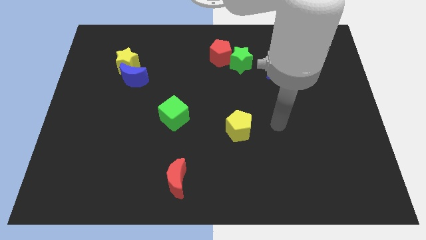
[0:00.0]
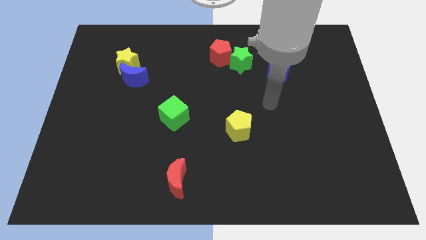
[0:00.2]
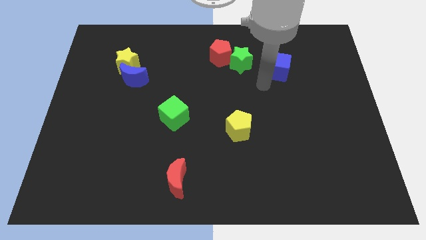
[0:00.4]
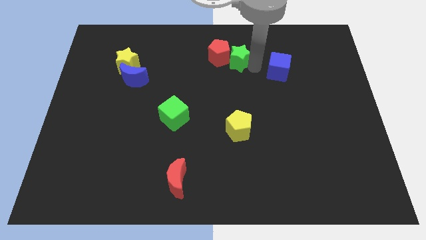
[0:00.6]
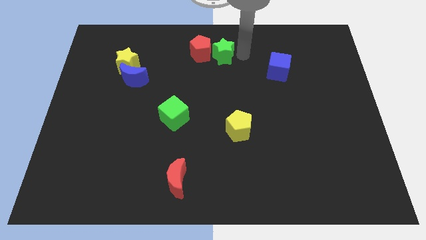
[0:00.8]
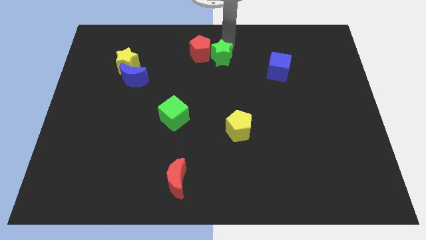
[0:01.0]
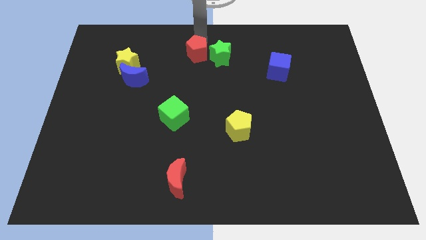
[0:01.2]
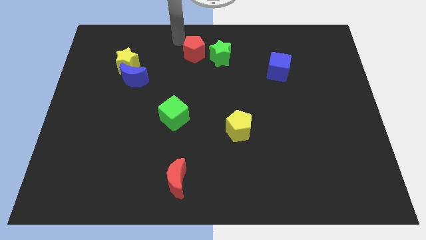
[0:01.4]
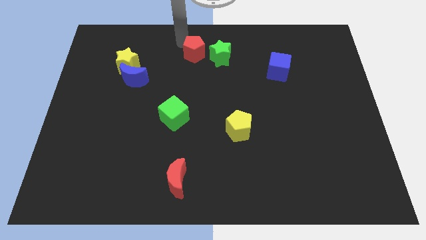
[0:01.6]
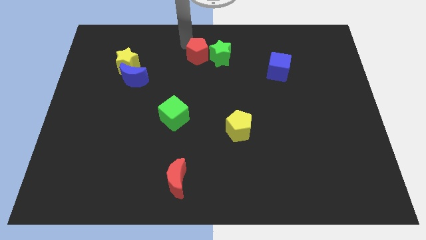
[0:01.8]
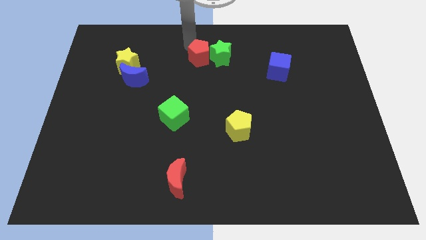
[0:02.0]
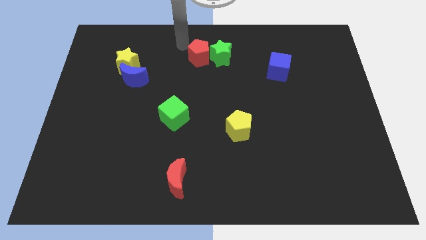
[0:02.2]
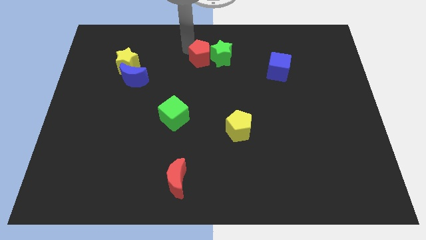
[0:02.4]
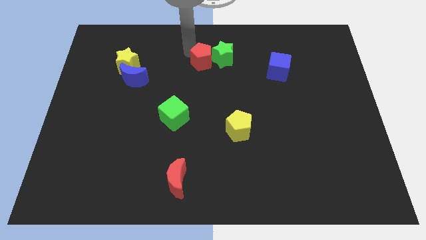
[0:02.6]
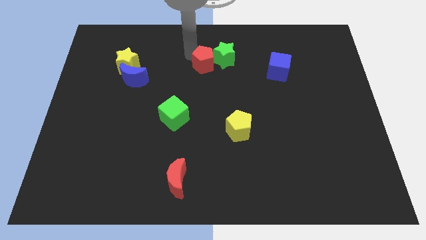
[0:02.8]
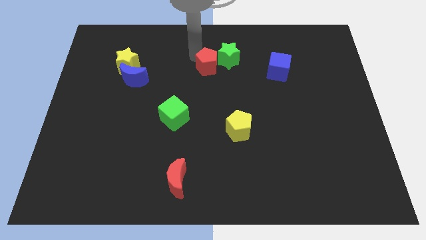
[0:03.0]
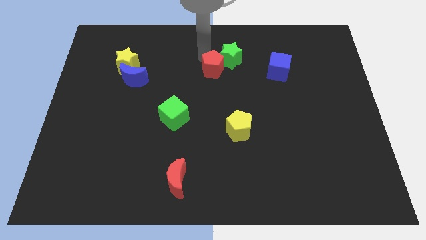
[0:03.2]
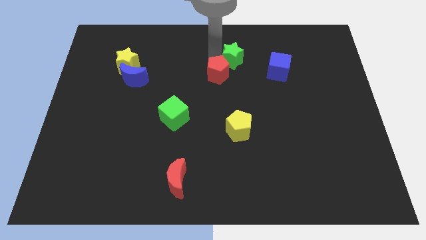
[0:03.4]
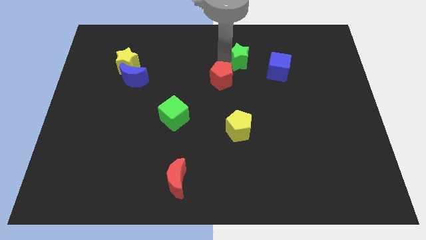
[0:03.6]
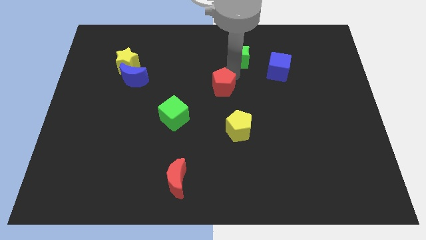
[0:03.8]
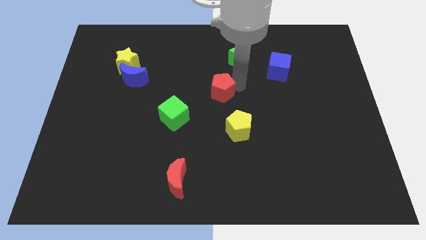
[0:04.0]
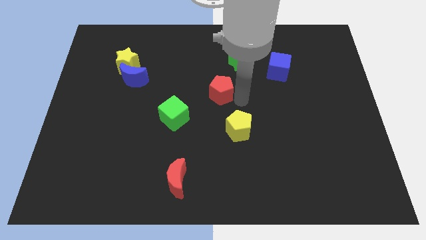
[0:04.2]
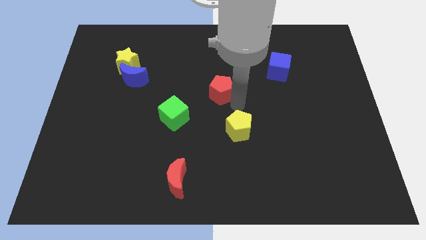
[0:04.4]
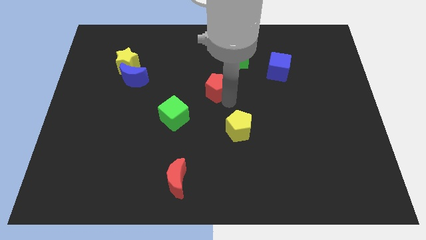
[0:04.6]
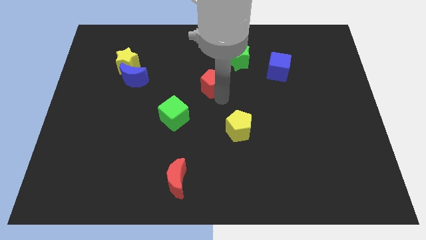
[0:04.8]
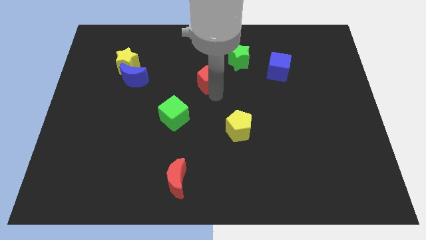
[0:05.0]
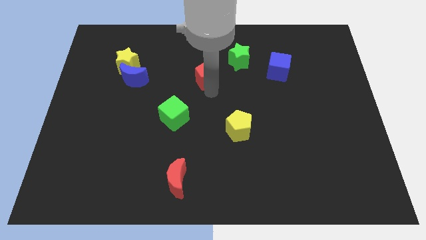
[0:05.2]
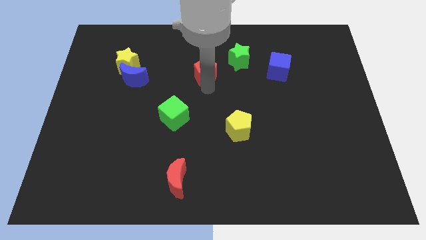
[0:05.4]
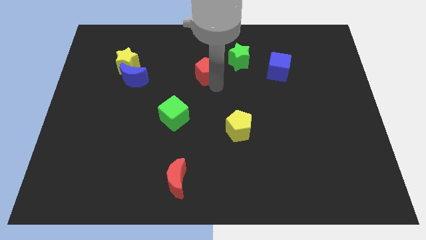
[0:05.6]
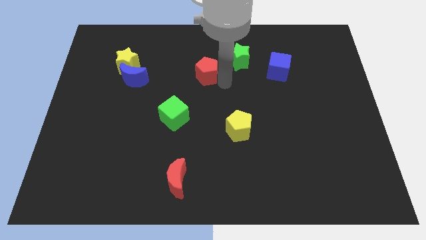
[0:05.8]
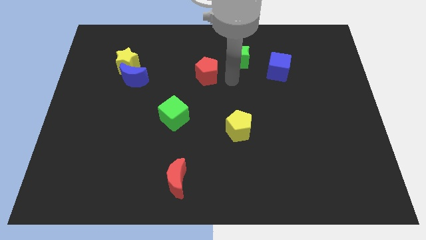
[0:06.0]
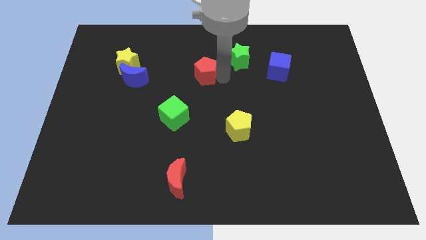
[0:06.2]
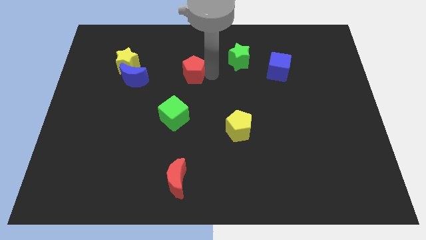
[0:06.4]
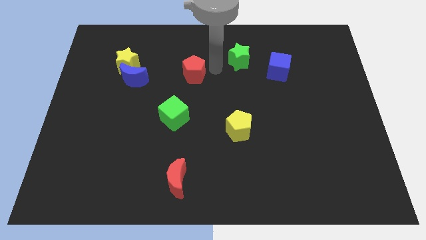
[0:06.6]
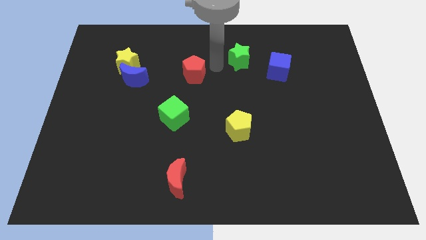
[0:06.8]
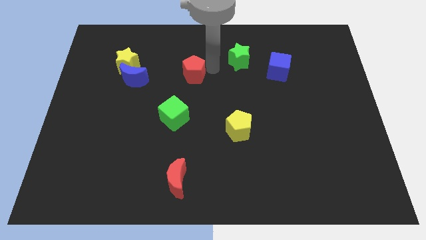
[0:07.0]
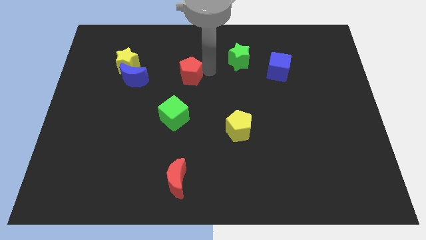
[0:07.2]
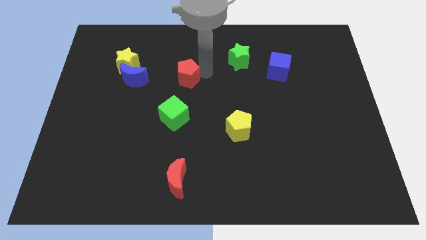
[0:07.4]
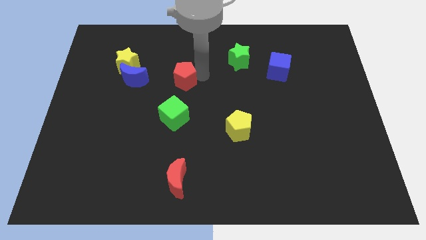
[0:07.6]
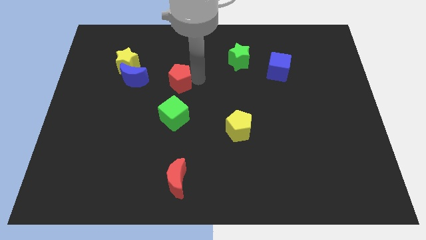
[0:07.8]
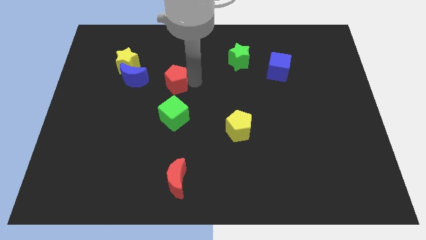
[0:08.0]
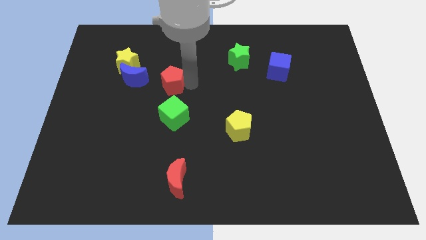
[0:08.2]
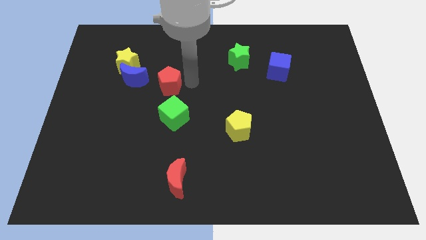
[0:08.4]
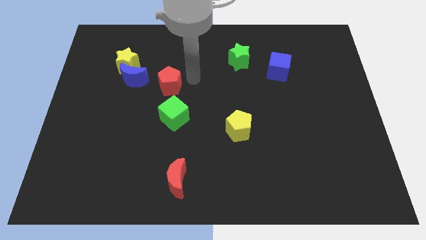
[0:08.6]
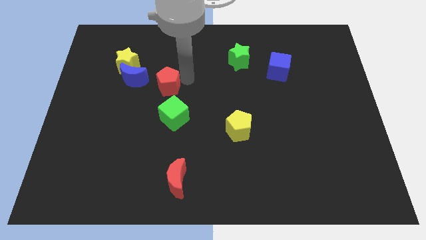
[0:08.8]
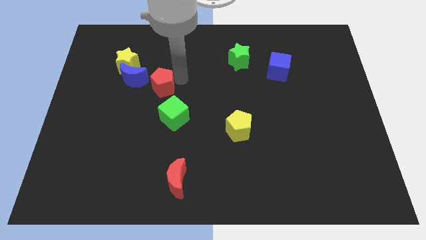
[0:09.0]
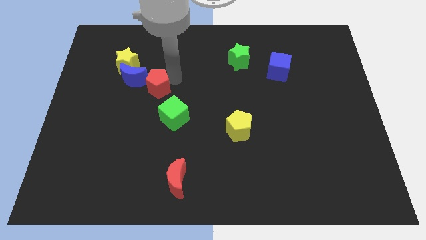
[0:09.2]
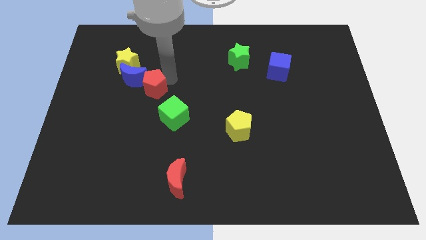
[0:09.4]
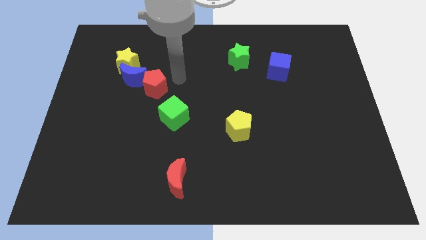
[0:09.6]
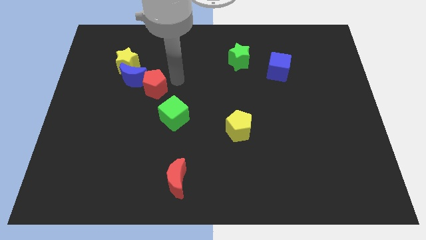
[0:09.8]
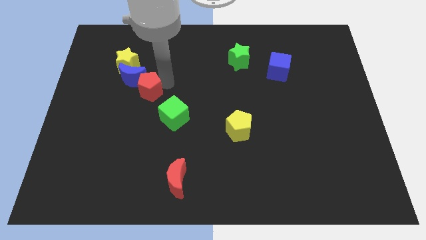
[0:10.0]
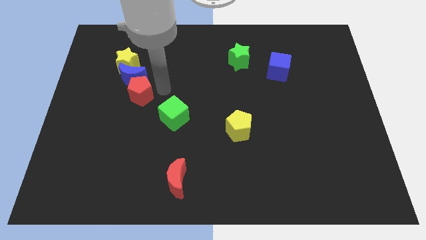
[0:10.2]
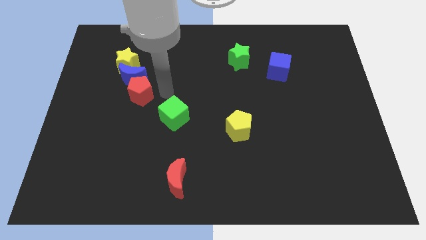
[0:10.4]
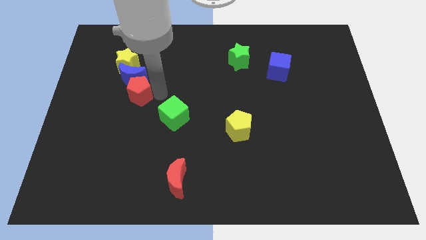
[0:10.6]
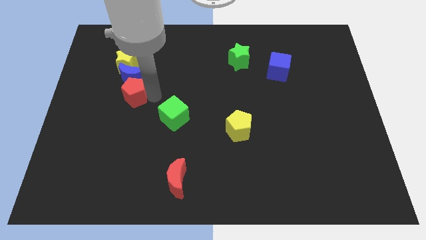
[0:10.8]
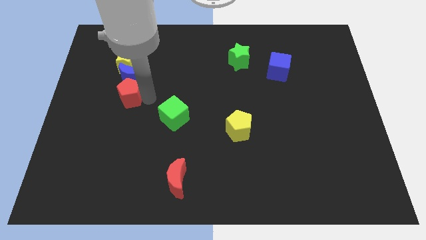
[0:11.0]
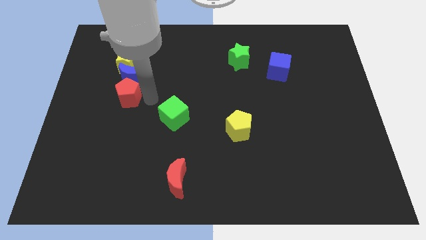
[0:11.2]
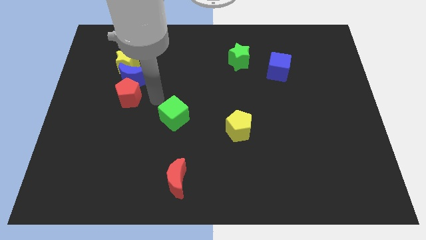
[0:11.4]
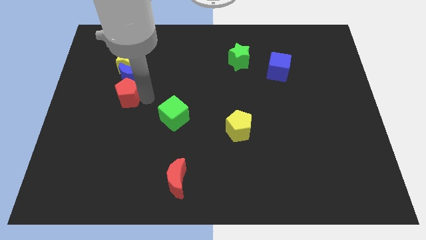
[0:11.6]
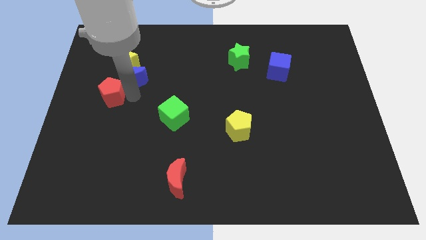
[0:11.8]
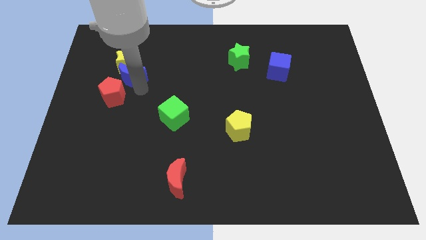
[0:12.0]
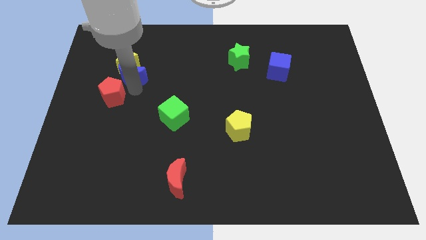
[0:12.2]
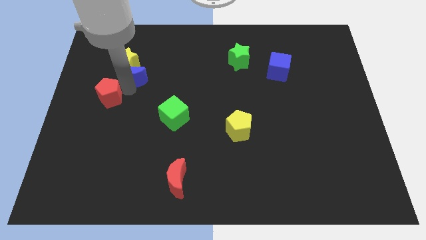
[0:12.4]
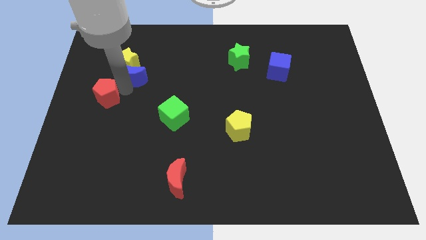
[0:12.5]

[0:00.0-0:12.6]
move the red pentagon to the left side
